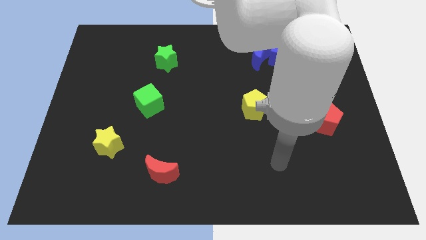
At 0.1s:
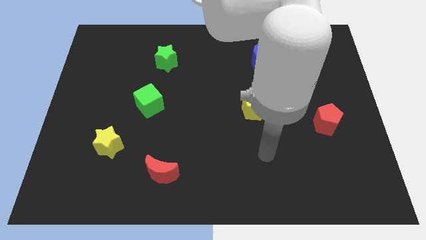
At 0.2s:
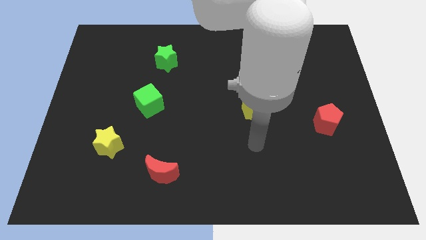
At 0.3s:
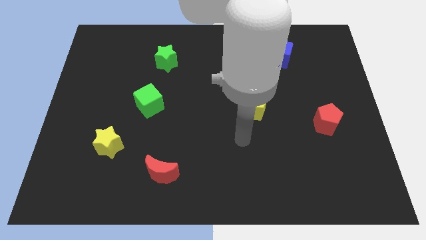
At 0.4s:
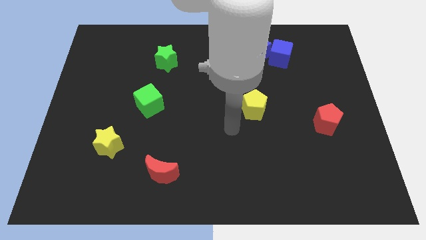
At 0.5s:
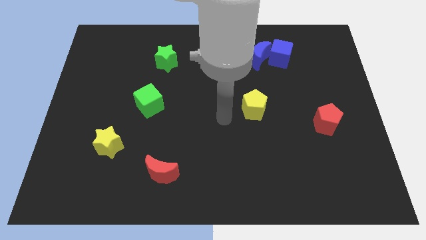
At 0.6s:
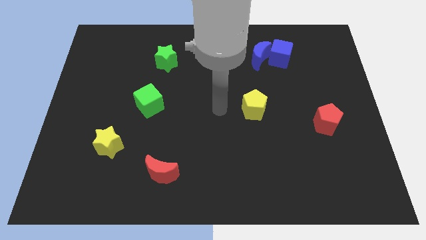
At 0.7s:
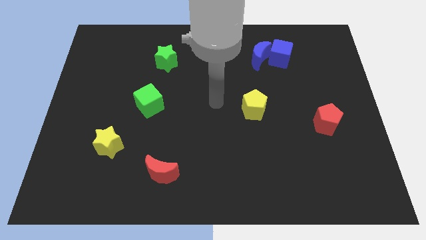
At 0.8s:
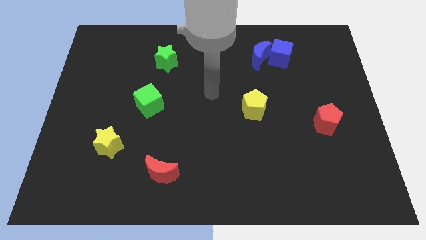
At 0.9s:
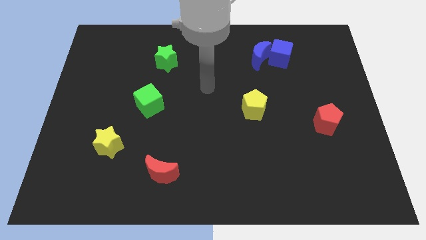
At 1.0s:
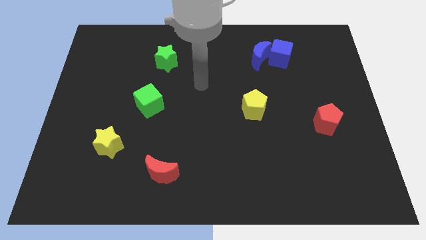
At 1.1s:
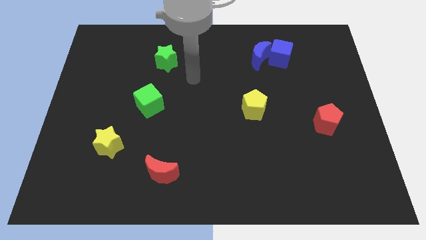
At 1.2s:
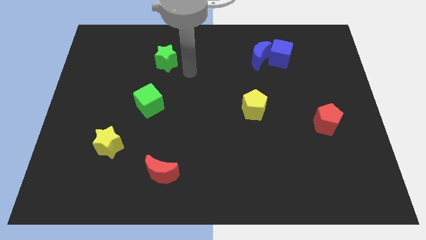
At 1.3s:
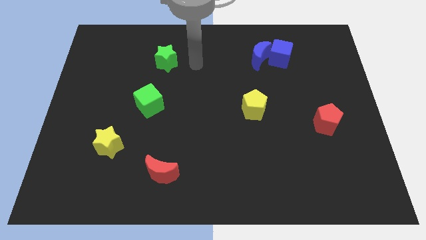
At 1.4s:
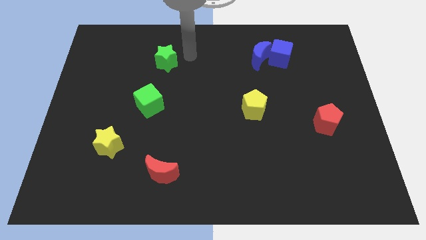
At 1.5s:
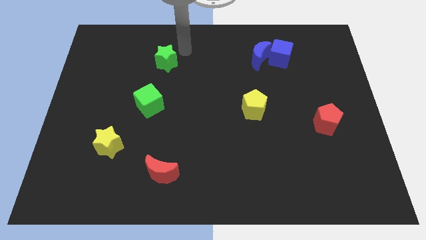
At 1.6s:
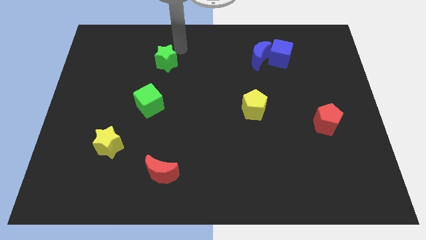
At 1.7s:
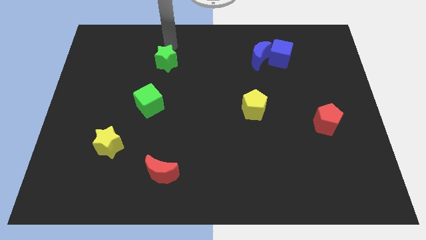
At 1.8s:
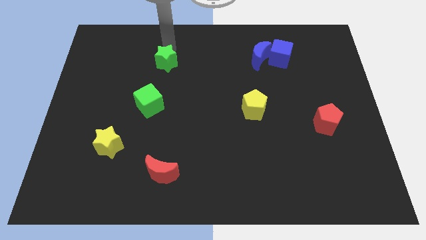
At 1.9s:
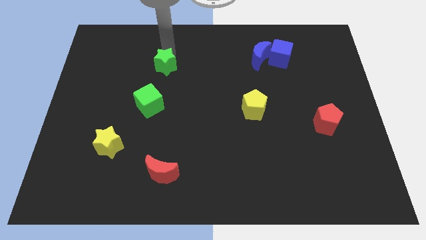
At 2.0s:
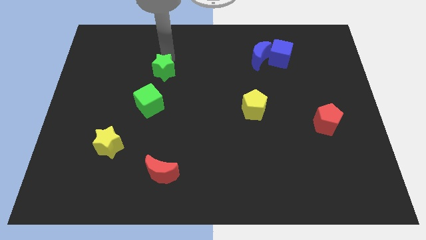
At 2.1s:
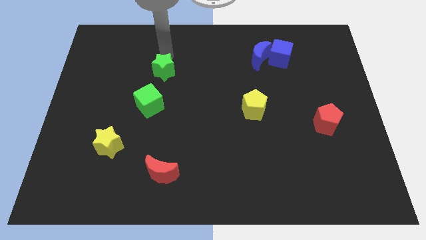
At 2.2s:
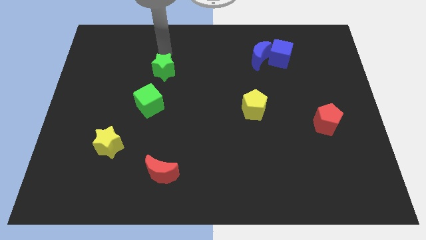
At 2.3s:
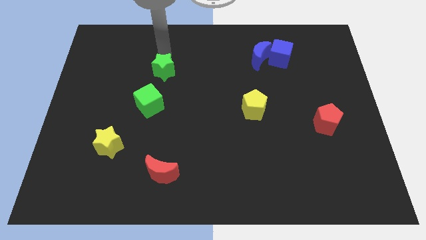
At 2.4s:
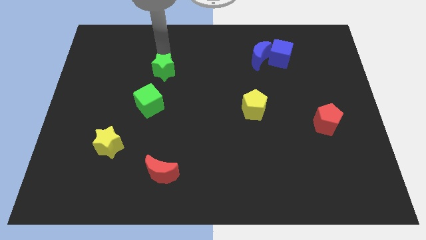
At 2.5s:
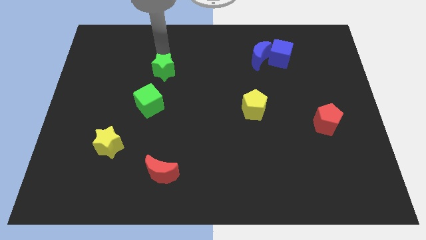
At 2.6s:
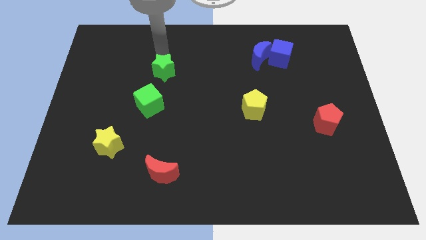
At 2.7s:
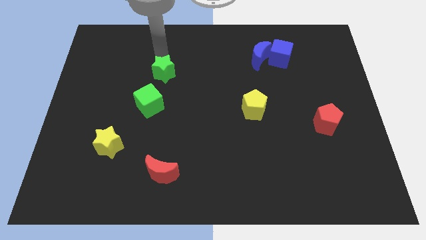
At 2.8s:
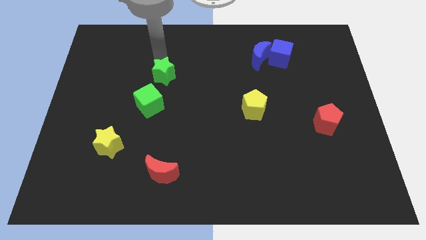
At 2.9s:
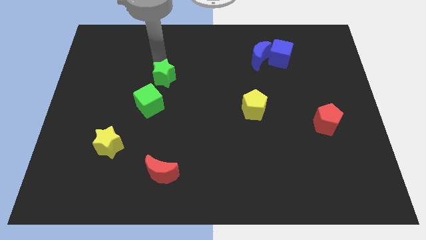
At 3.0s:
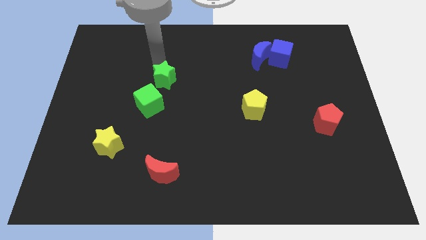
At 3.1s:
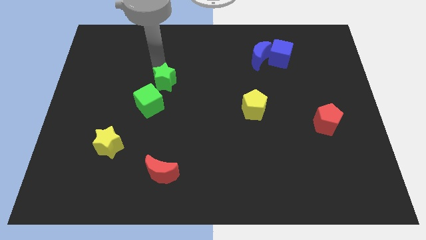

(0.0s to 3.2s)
slide the green star down a bit

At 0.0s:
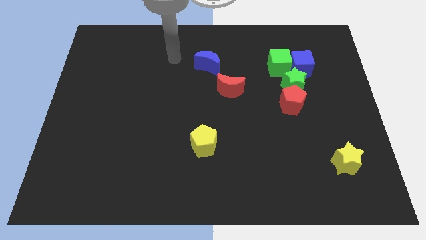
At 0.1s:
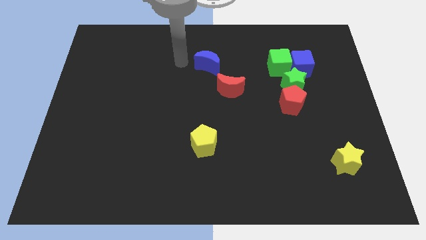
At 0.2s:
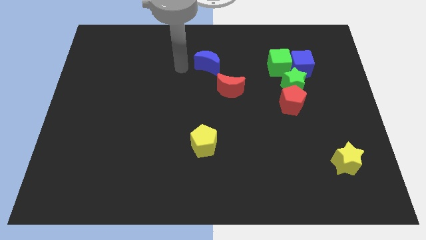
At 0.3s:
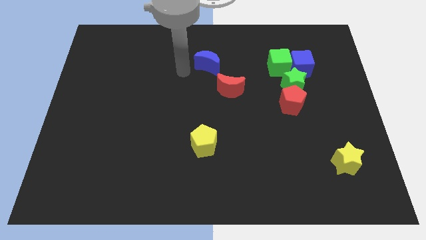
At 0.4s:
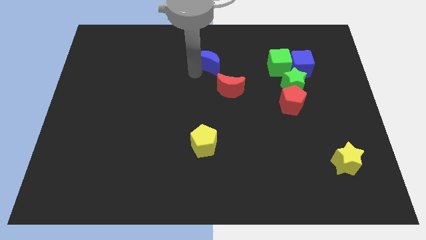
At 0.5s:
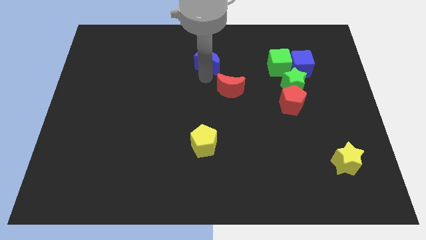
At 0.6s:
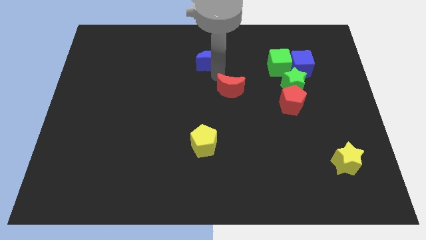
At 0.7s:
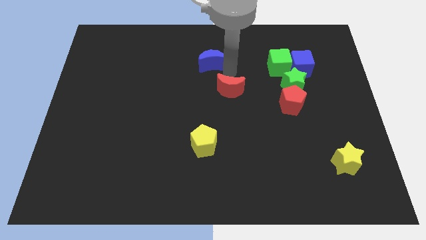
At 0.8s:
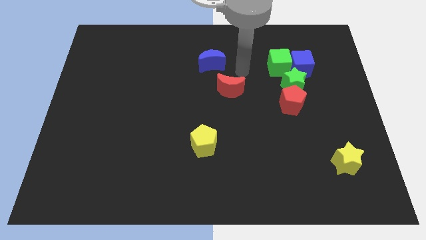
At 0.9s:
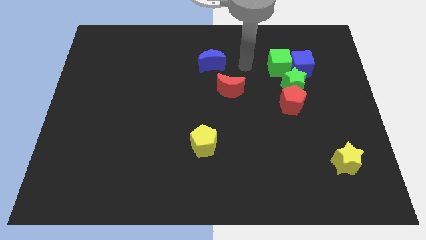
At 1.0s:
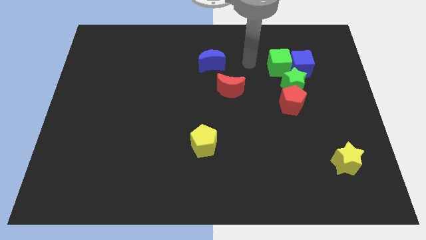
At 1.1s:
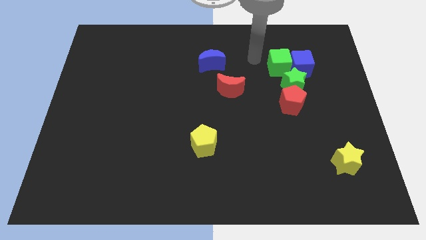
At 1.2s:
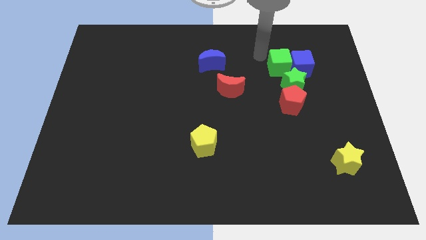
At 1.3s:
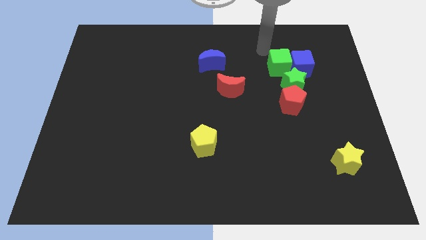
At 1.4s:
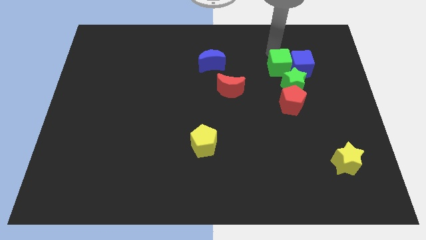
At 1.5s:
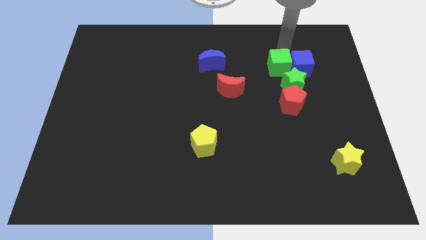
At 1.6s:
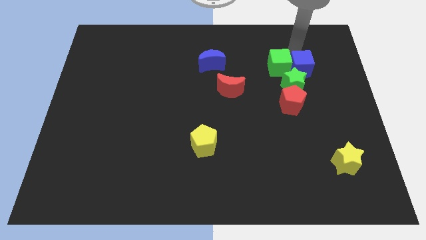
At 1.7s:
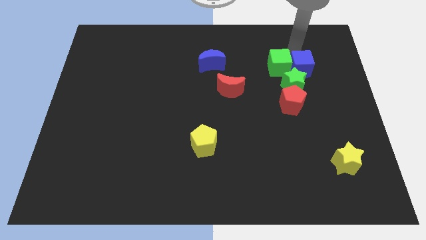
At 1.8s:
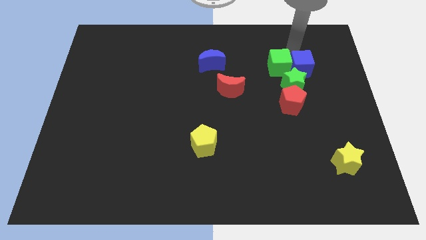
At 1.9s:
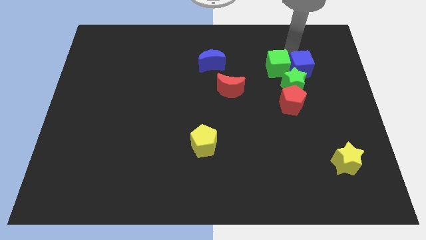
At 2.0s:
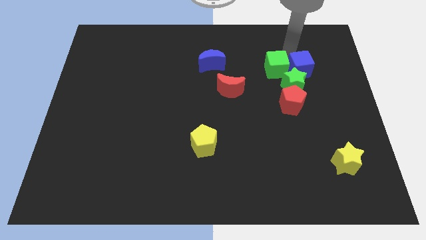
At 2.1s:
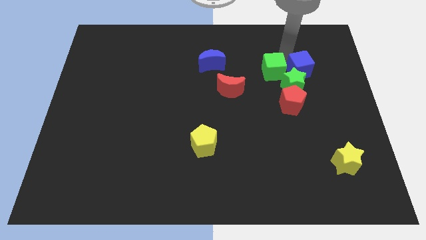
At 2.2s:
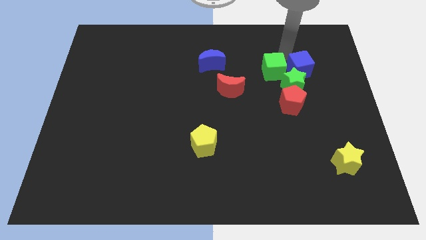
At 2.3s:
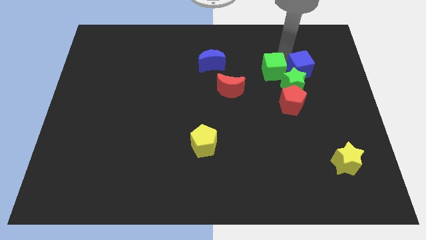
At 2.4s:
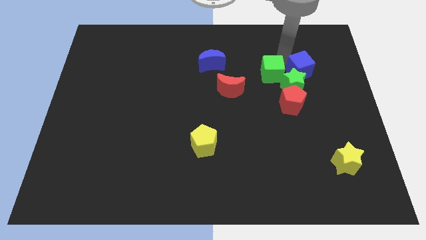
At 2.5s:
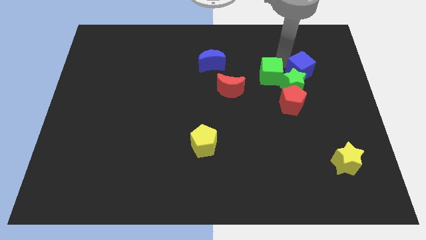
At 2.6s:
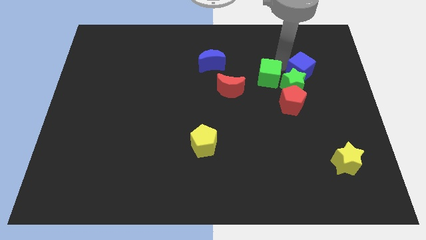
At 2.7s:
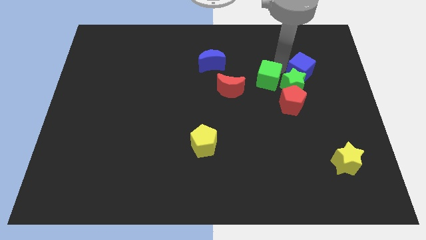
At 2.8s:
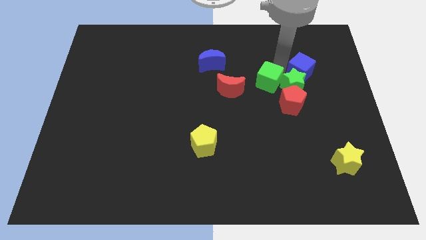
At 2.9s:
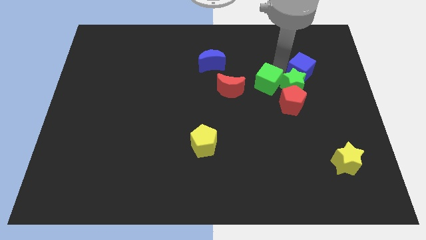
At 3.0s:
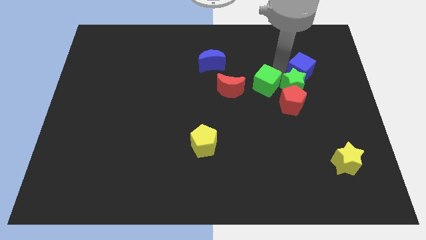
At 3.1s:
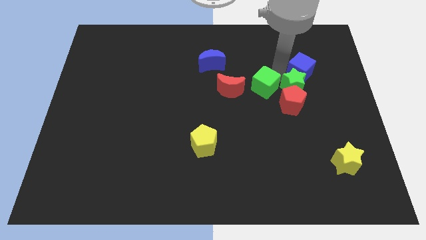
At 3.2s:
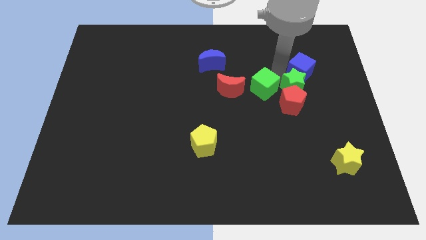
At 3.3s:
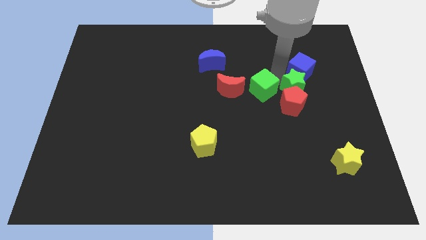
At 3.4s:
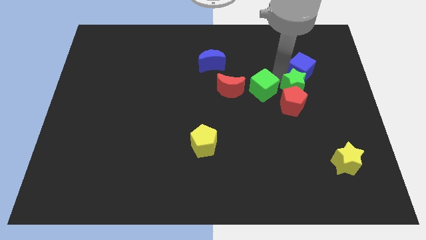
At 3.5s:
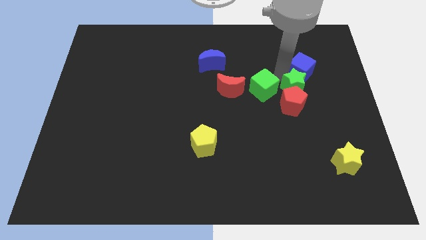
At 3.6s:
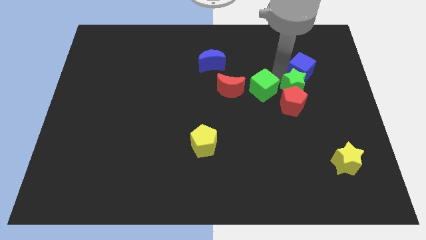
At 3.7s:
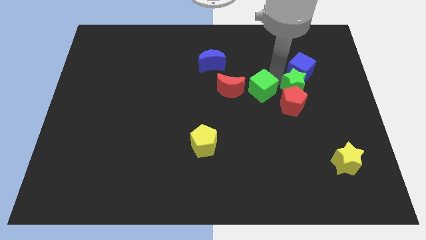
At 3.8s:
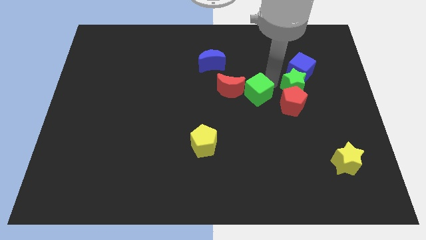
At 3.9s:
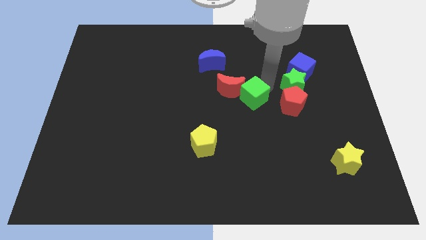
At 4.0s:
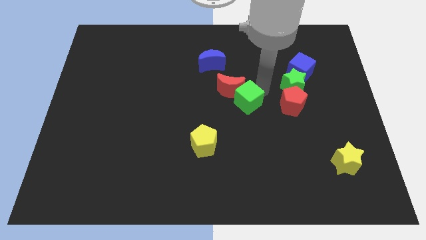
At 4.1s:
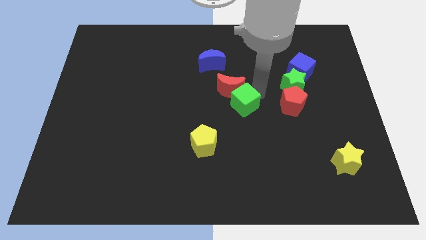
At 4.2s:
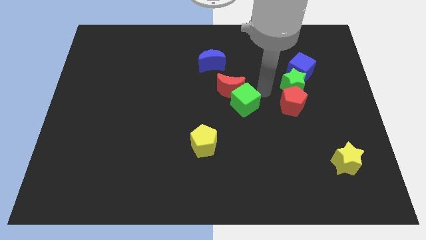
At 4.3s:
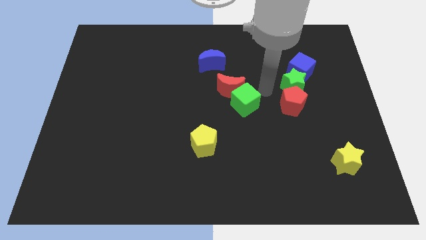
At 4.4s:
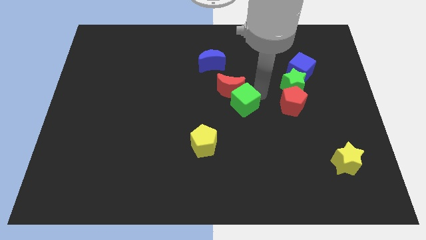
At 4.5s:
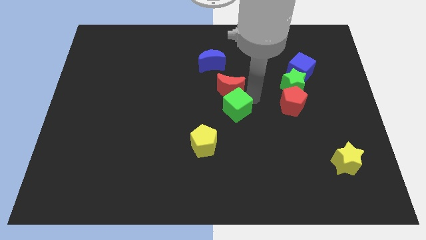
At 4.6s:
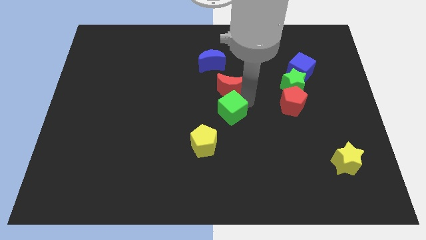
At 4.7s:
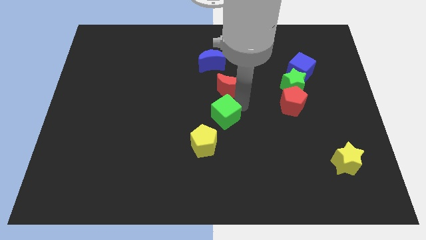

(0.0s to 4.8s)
move the green cube diagonally down and left

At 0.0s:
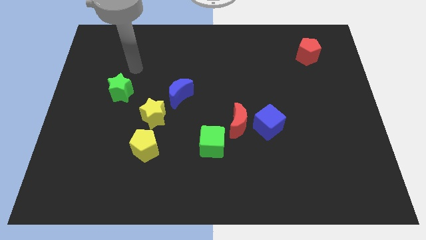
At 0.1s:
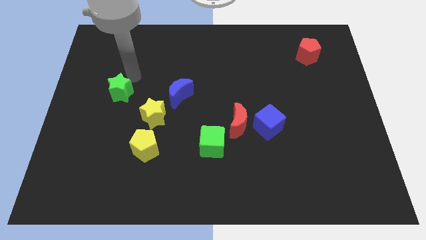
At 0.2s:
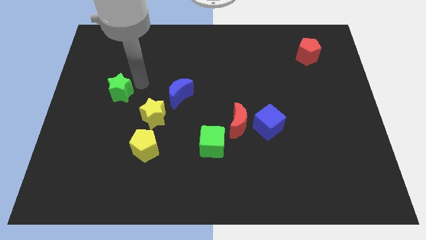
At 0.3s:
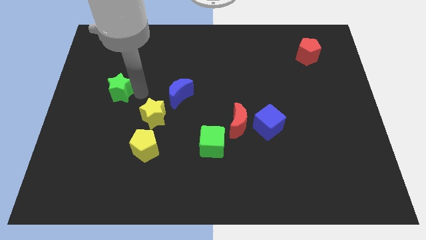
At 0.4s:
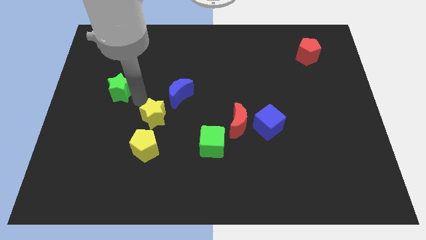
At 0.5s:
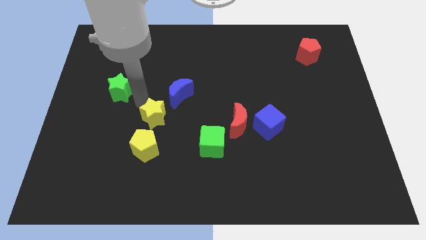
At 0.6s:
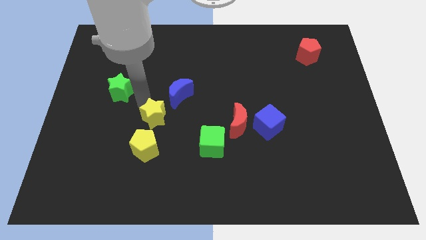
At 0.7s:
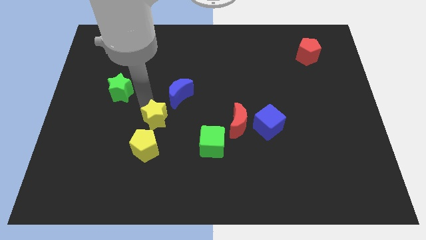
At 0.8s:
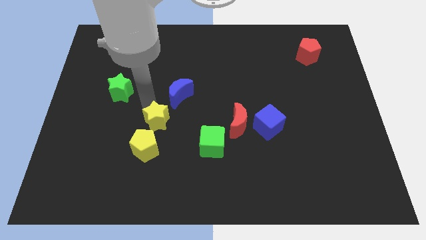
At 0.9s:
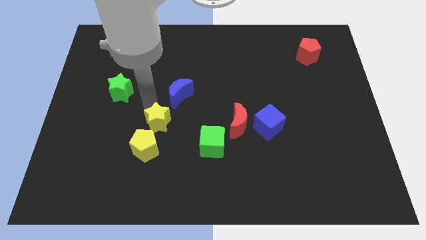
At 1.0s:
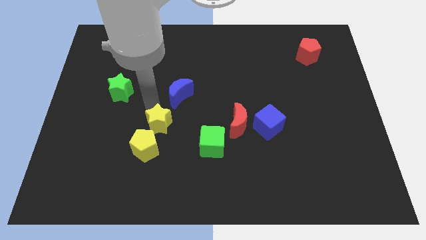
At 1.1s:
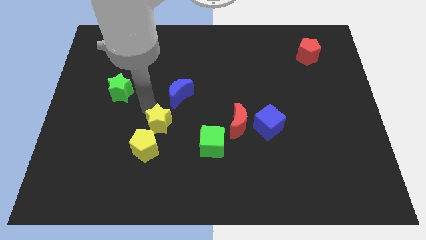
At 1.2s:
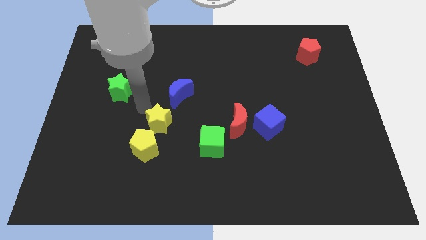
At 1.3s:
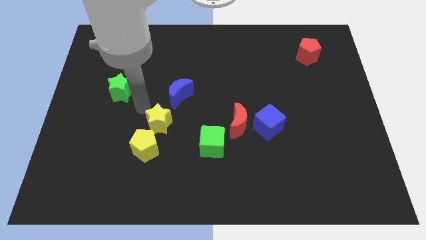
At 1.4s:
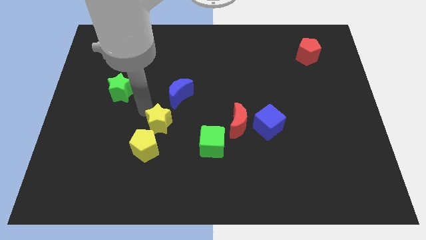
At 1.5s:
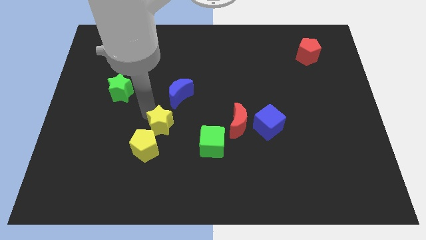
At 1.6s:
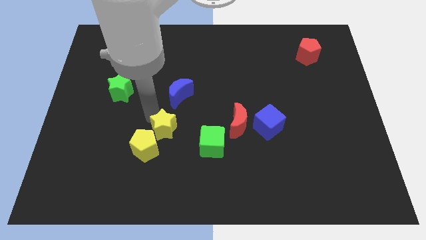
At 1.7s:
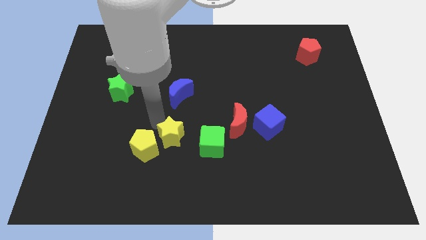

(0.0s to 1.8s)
slide the yellow star slightly down and right
